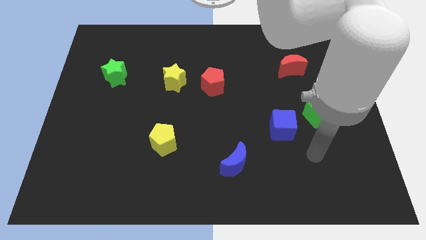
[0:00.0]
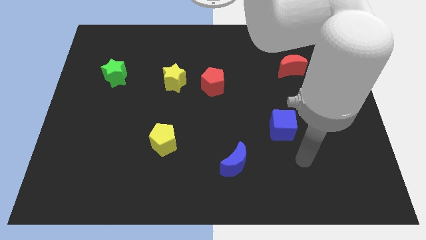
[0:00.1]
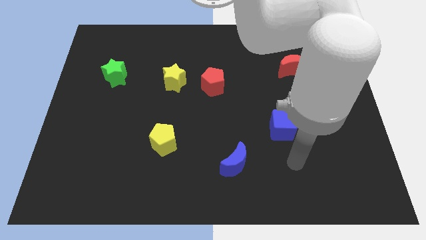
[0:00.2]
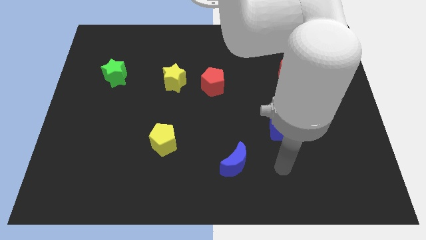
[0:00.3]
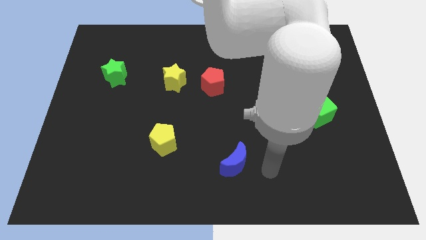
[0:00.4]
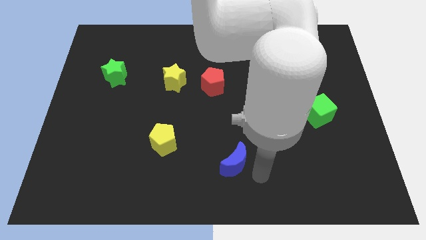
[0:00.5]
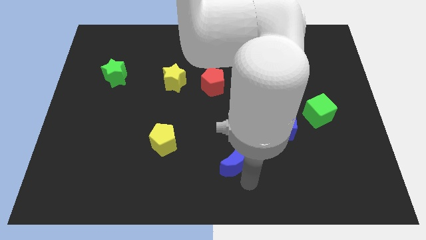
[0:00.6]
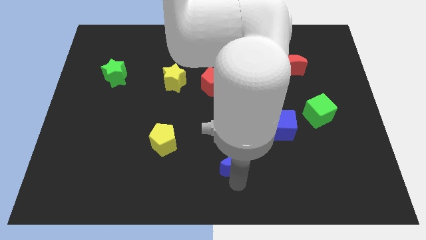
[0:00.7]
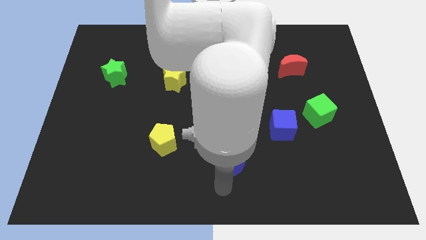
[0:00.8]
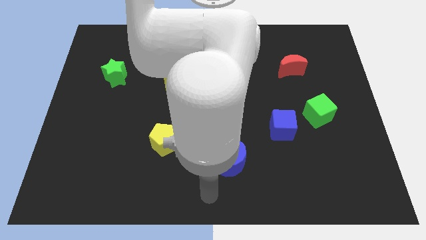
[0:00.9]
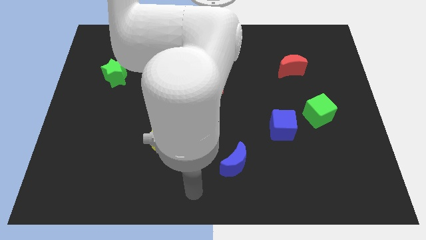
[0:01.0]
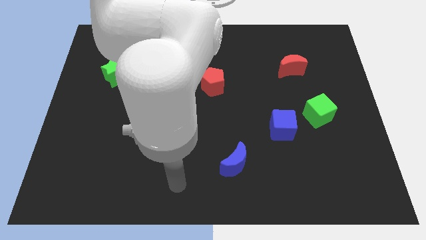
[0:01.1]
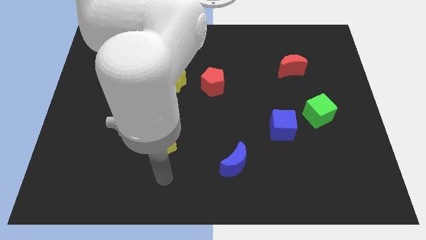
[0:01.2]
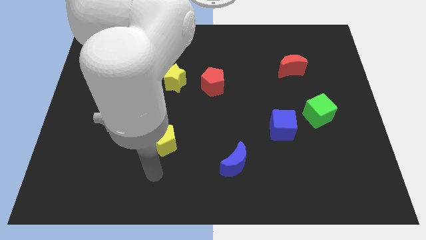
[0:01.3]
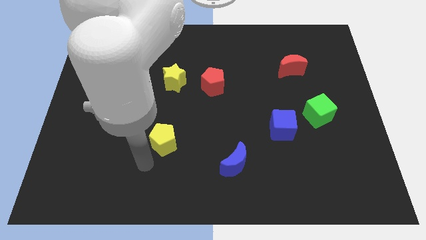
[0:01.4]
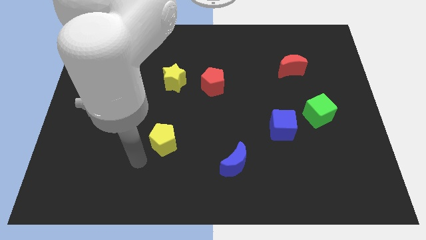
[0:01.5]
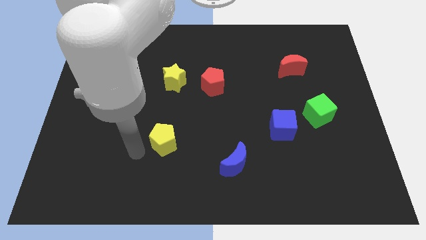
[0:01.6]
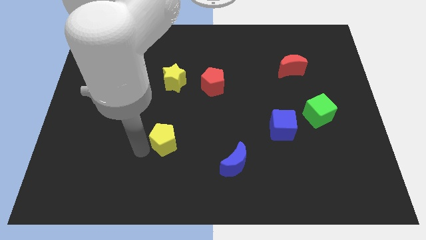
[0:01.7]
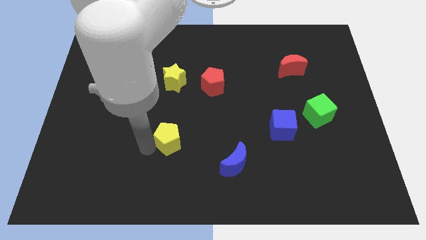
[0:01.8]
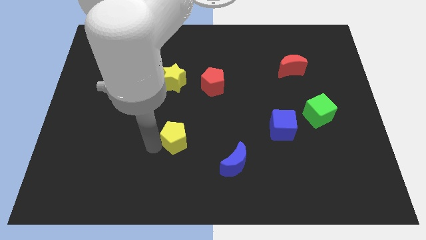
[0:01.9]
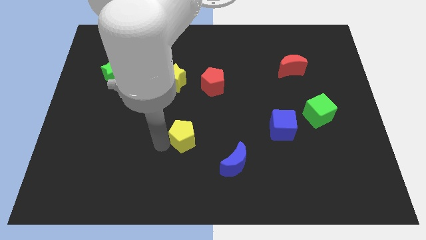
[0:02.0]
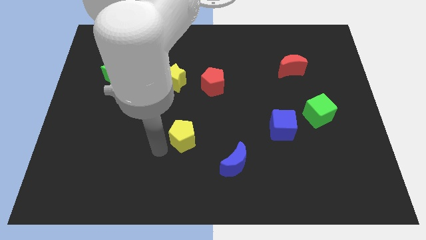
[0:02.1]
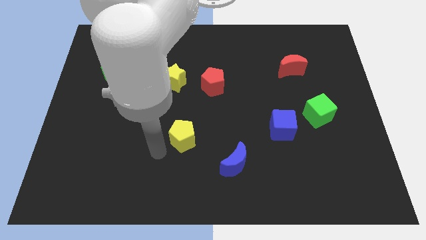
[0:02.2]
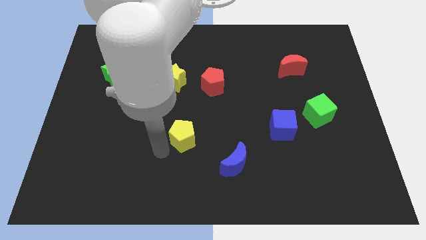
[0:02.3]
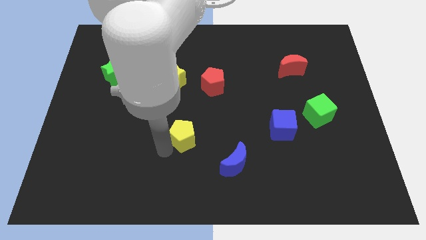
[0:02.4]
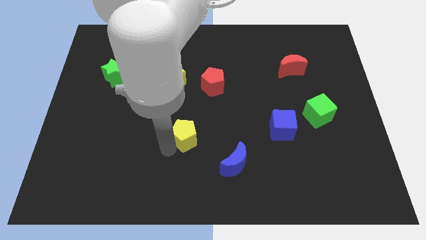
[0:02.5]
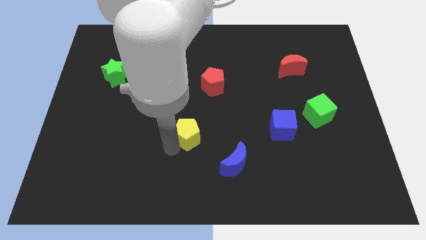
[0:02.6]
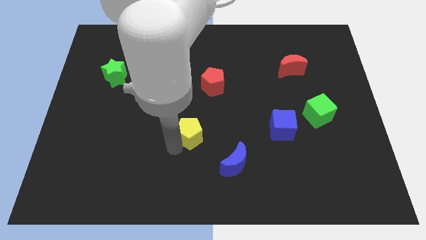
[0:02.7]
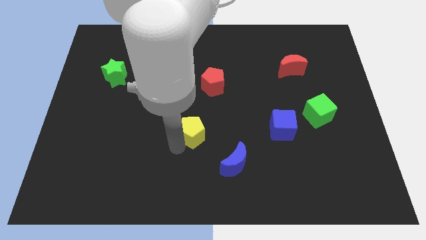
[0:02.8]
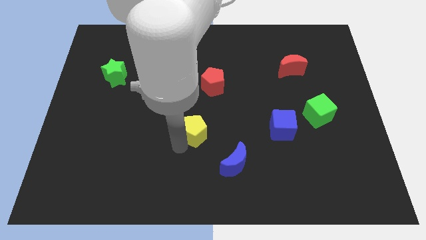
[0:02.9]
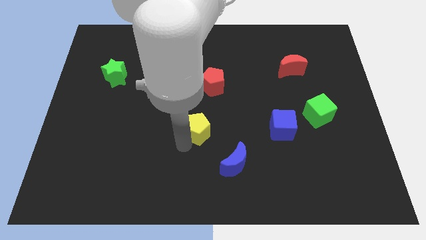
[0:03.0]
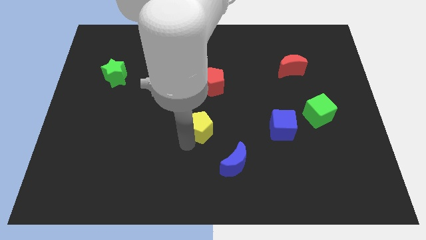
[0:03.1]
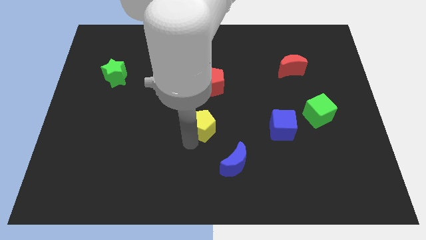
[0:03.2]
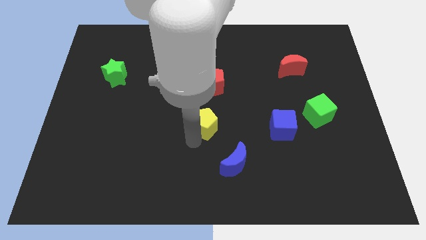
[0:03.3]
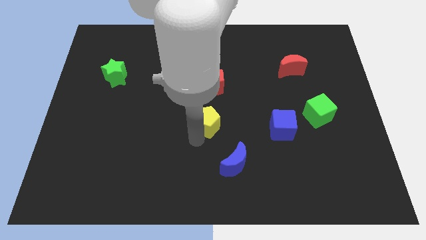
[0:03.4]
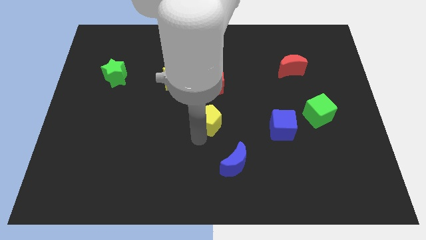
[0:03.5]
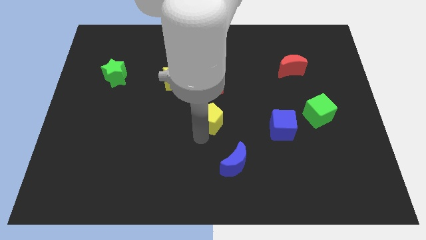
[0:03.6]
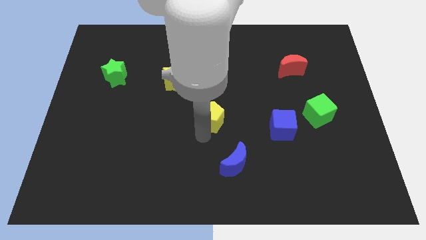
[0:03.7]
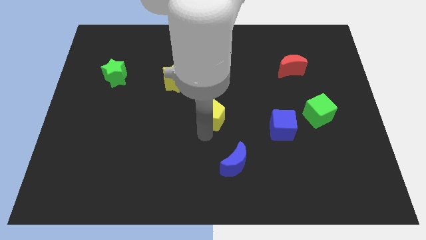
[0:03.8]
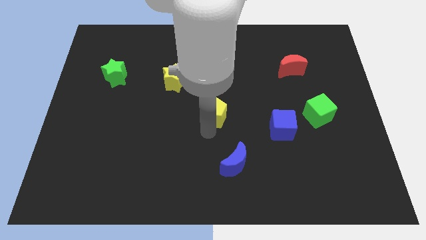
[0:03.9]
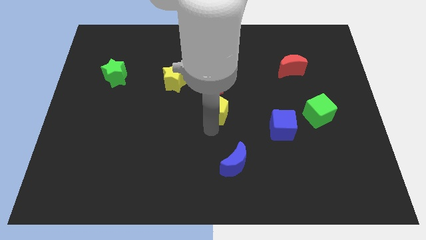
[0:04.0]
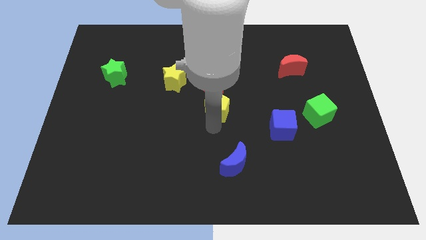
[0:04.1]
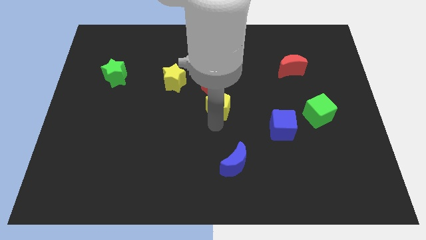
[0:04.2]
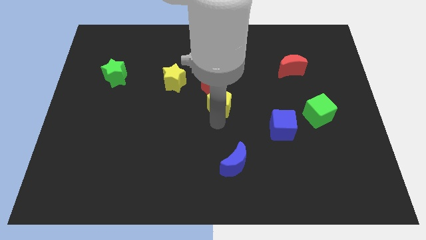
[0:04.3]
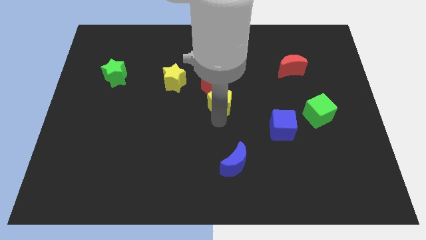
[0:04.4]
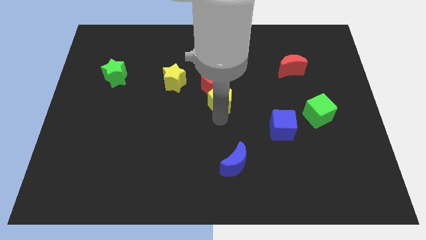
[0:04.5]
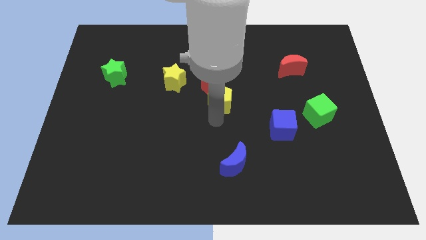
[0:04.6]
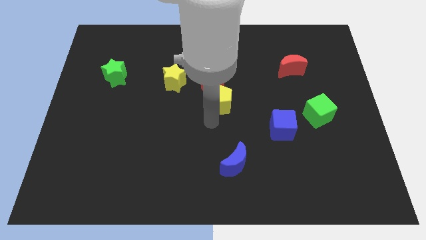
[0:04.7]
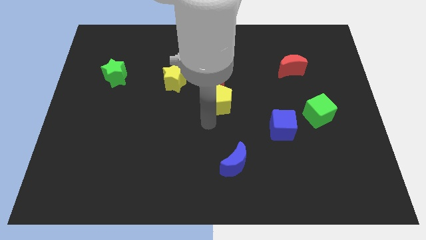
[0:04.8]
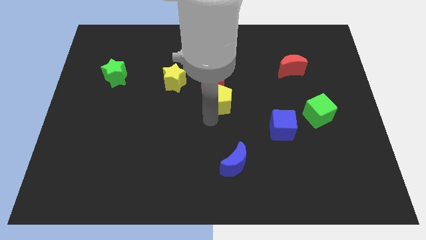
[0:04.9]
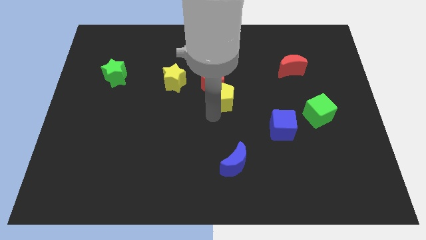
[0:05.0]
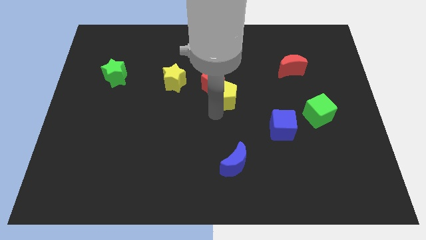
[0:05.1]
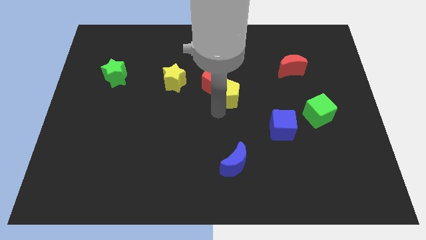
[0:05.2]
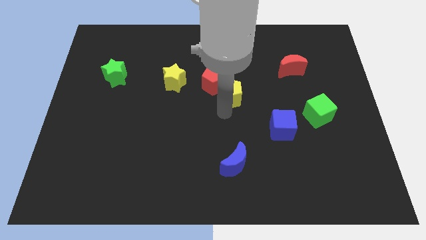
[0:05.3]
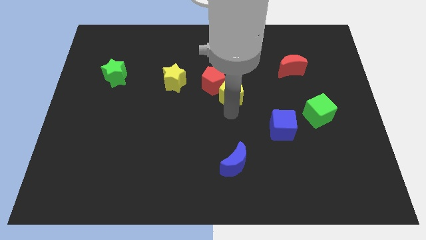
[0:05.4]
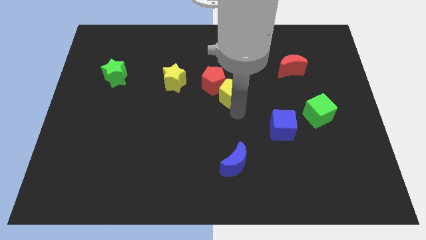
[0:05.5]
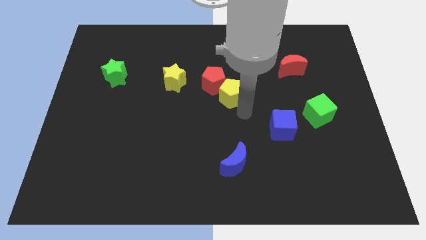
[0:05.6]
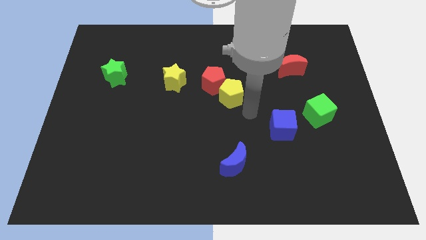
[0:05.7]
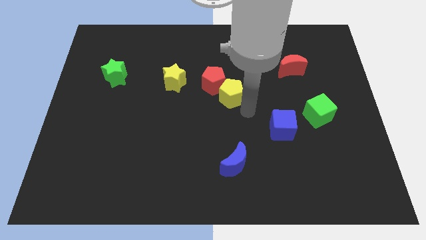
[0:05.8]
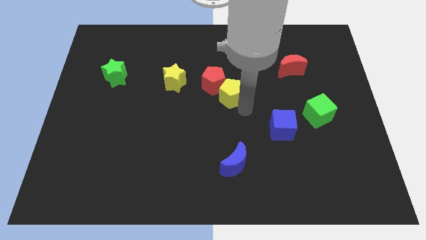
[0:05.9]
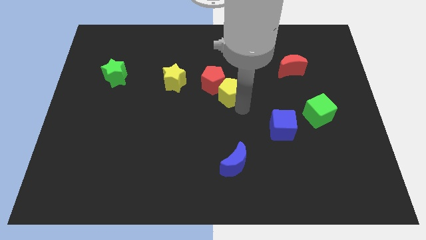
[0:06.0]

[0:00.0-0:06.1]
put the yellow pentagon just right of the yellow star

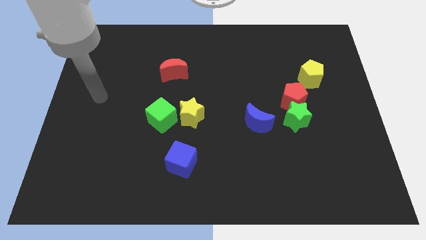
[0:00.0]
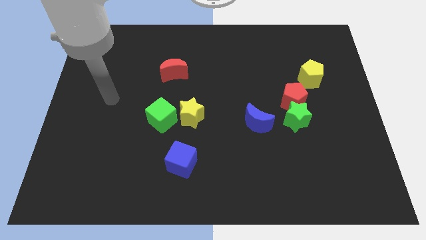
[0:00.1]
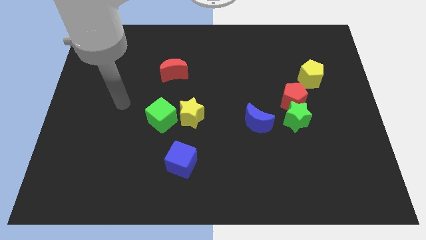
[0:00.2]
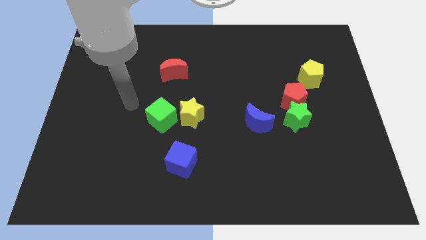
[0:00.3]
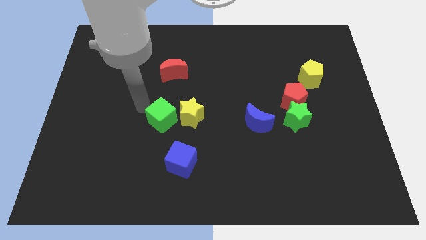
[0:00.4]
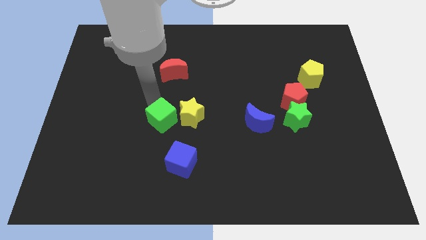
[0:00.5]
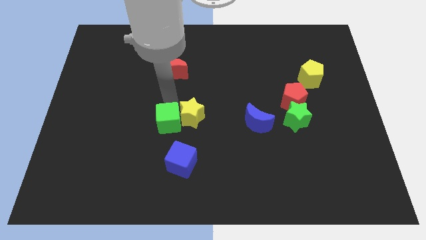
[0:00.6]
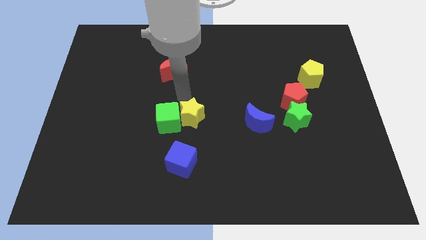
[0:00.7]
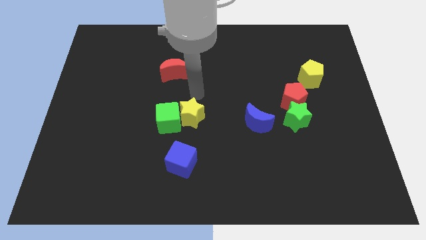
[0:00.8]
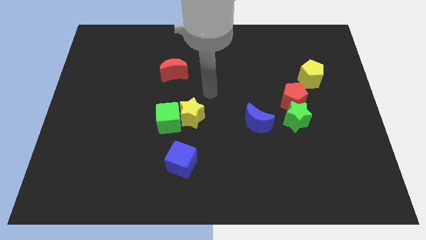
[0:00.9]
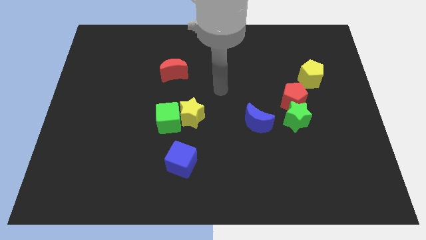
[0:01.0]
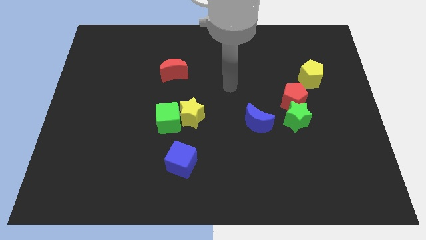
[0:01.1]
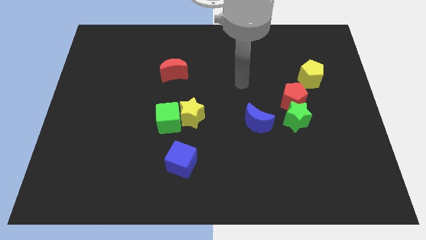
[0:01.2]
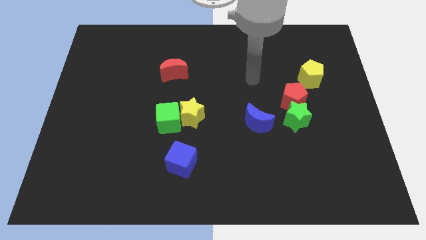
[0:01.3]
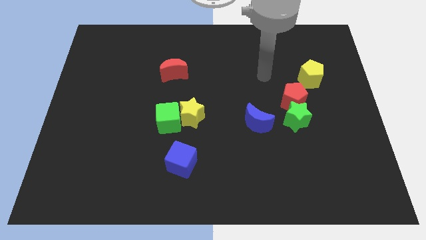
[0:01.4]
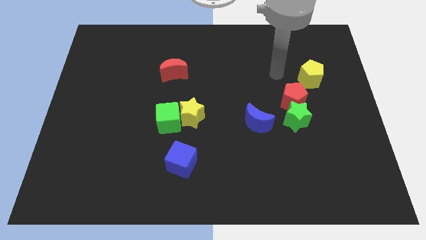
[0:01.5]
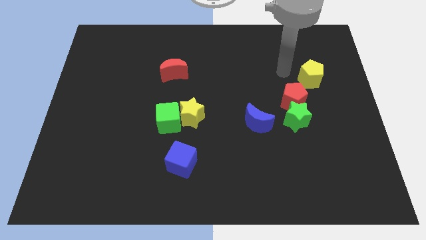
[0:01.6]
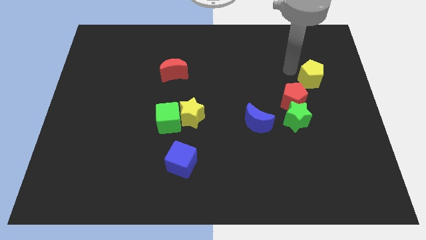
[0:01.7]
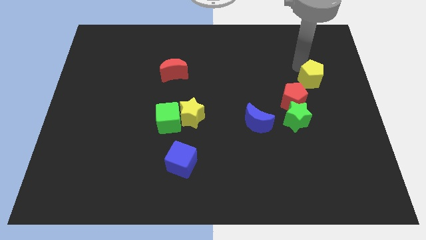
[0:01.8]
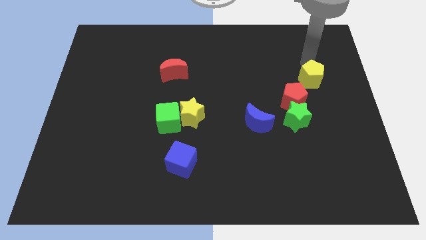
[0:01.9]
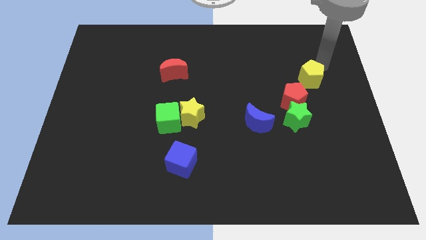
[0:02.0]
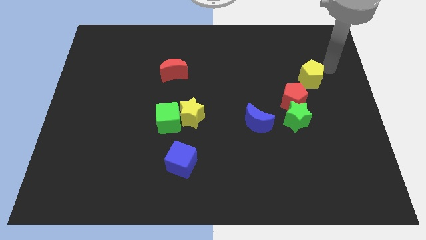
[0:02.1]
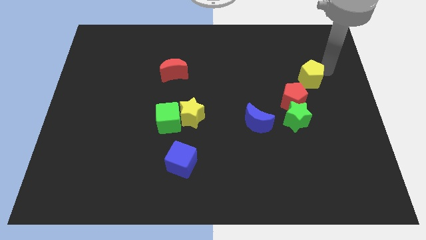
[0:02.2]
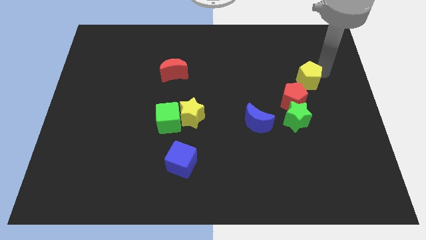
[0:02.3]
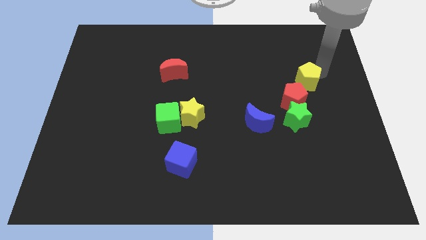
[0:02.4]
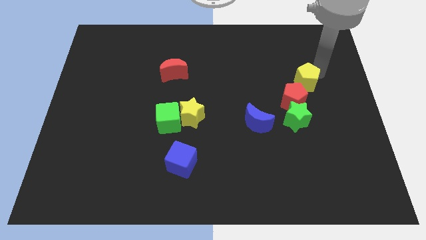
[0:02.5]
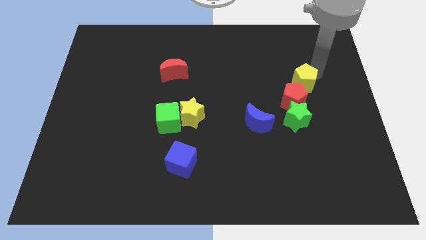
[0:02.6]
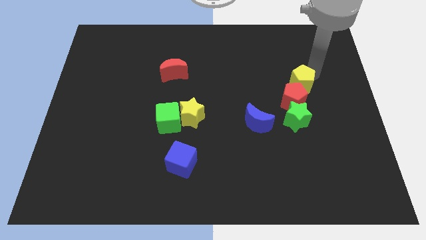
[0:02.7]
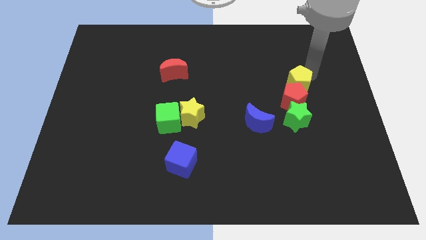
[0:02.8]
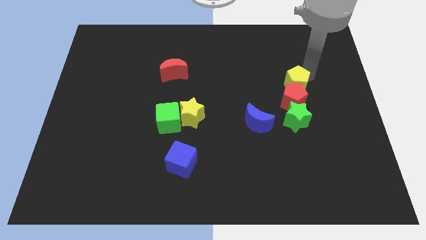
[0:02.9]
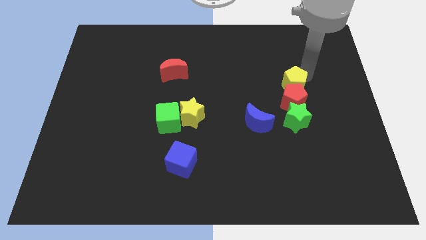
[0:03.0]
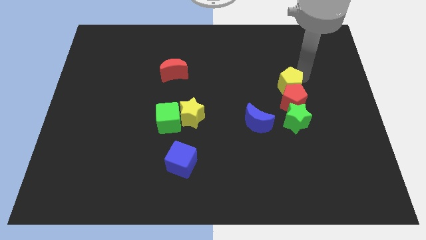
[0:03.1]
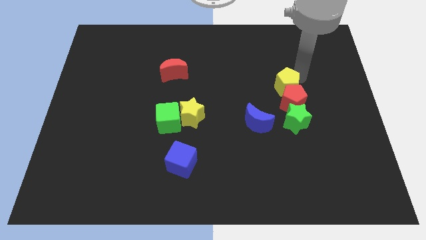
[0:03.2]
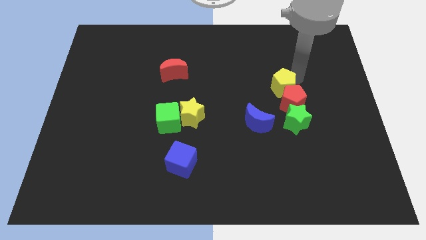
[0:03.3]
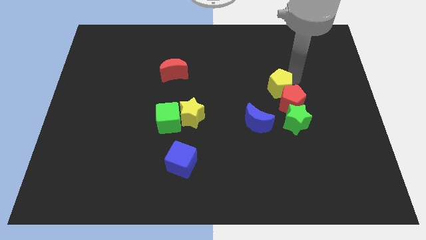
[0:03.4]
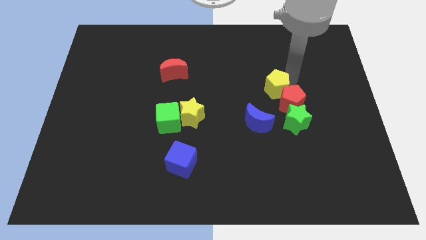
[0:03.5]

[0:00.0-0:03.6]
put the yellow pentagon to the top left side of the green star
